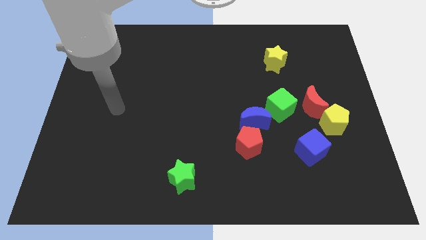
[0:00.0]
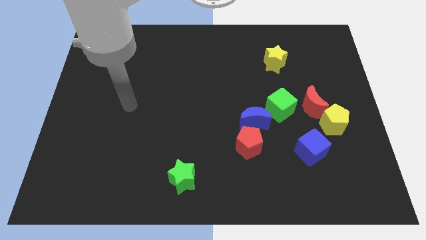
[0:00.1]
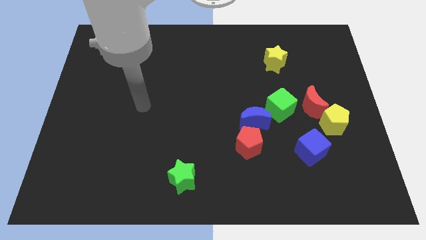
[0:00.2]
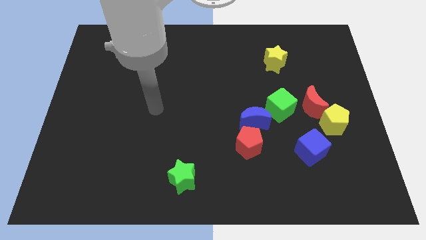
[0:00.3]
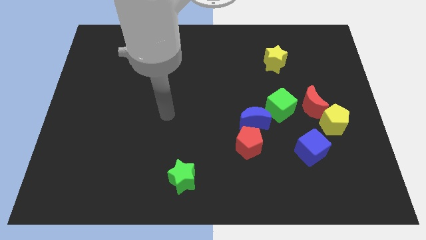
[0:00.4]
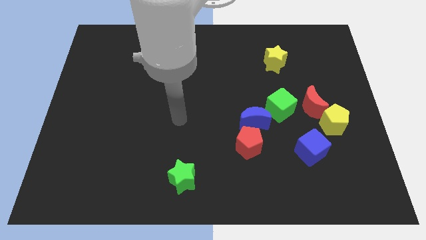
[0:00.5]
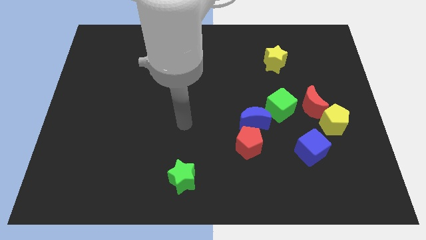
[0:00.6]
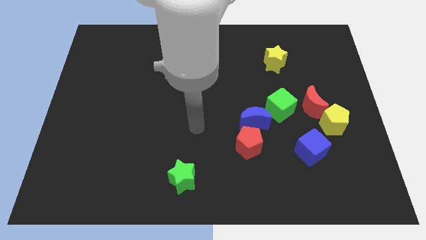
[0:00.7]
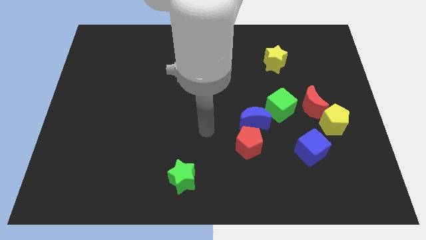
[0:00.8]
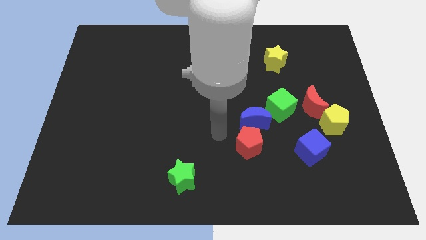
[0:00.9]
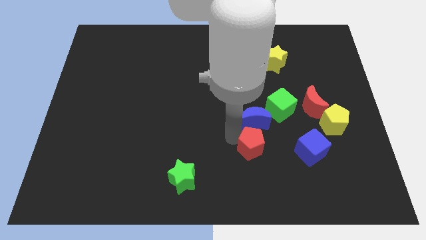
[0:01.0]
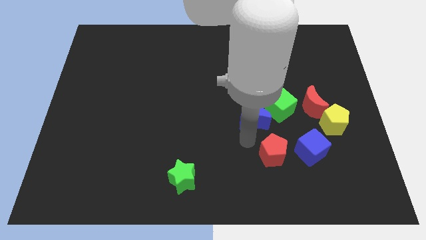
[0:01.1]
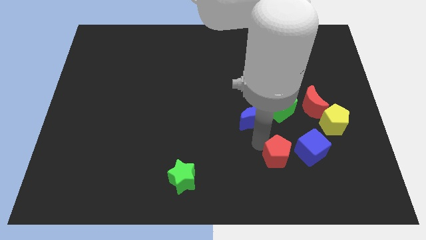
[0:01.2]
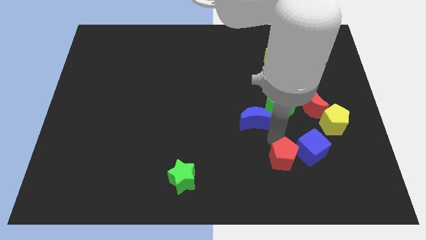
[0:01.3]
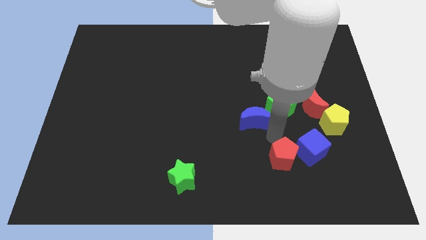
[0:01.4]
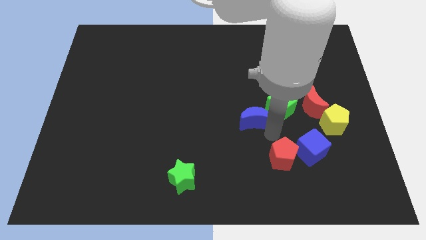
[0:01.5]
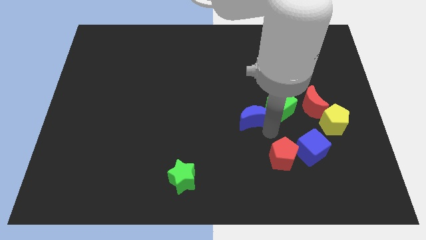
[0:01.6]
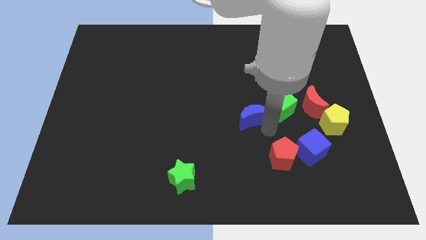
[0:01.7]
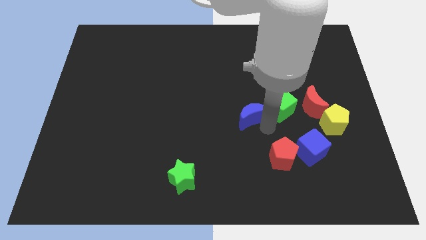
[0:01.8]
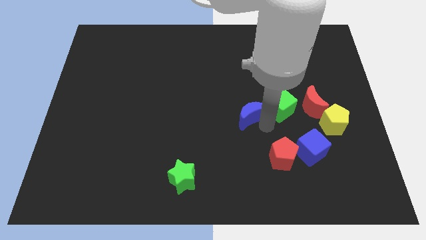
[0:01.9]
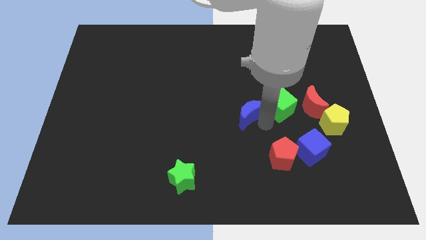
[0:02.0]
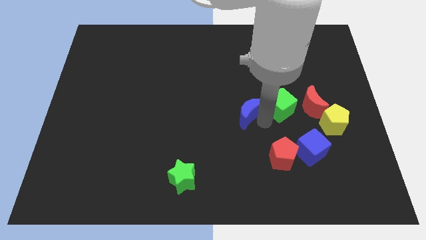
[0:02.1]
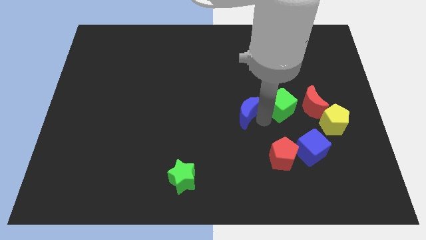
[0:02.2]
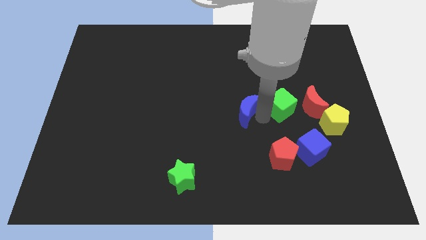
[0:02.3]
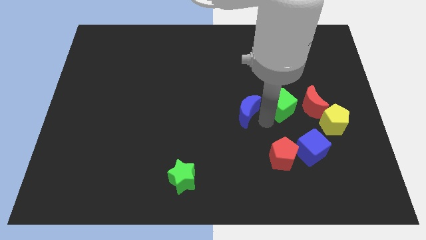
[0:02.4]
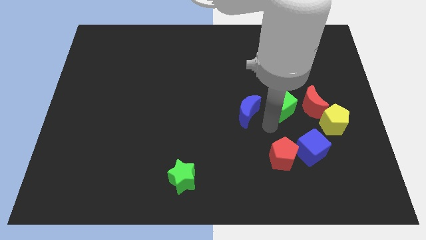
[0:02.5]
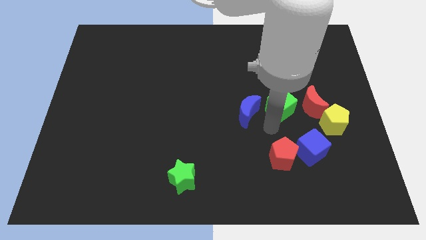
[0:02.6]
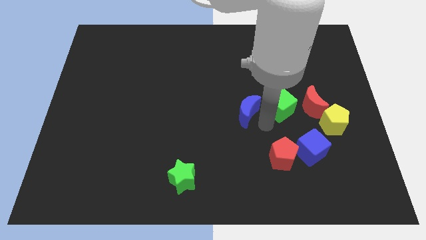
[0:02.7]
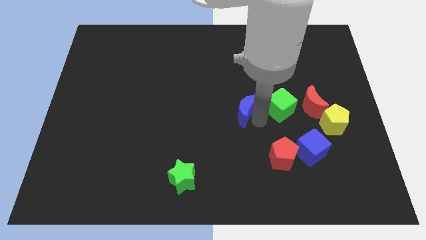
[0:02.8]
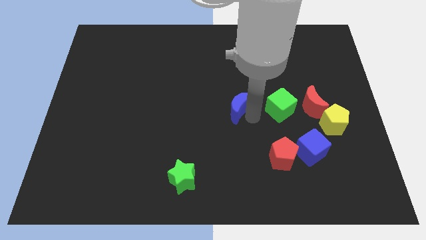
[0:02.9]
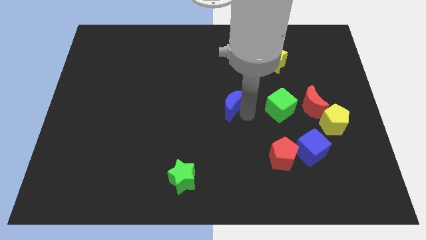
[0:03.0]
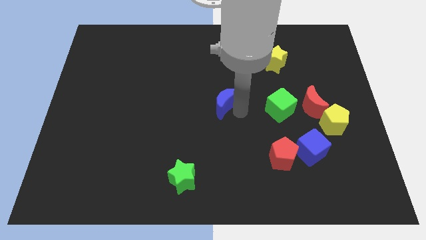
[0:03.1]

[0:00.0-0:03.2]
slightly slide the blue moon upwards and left diagonally

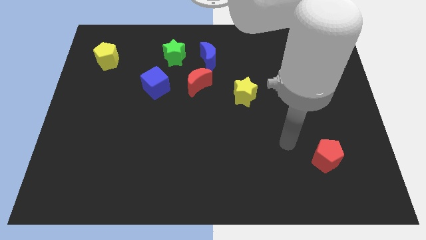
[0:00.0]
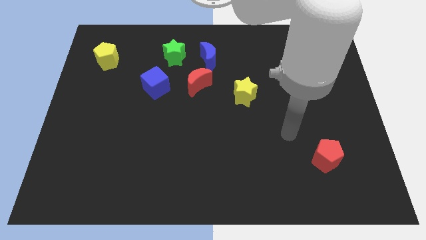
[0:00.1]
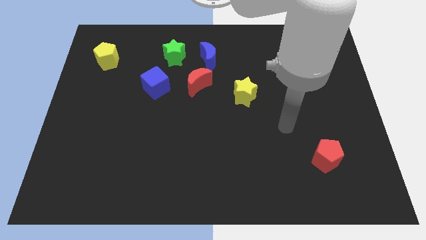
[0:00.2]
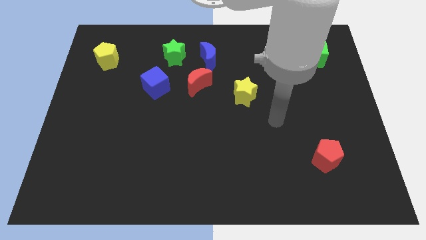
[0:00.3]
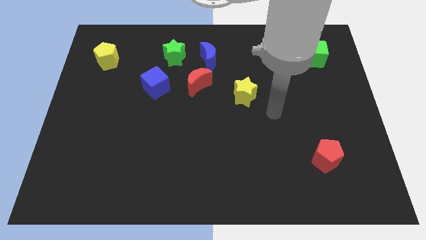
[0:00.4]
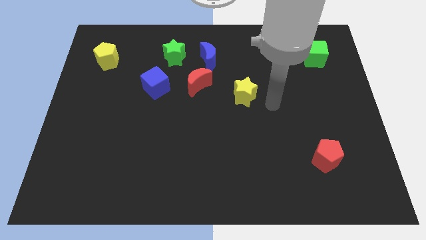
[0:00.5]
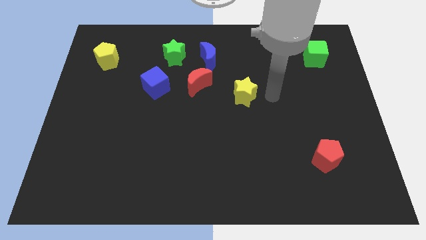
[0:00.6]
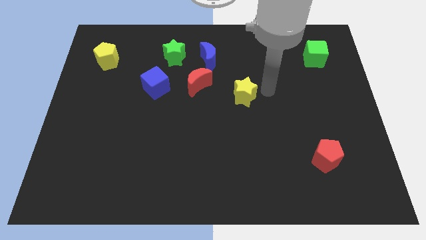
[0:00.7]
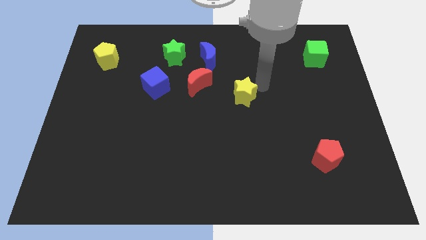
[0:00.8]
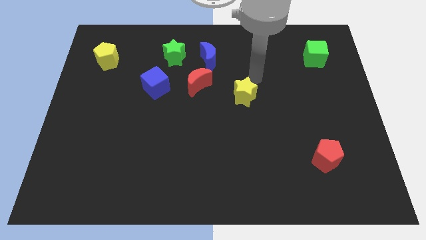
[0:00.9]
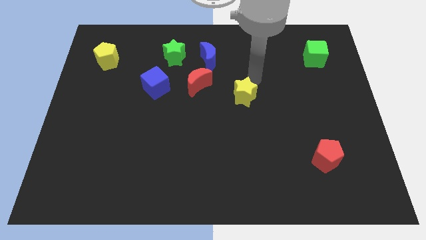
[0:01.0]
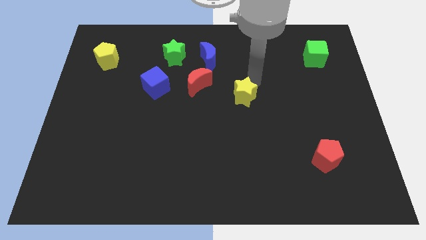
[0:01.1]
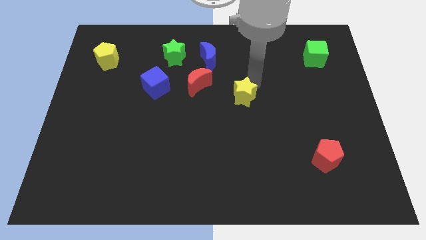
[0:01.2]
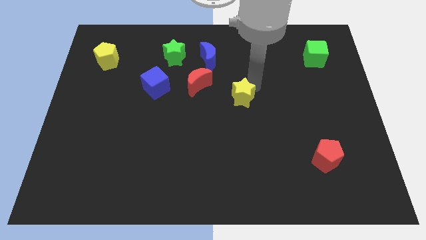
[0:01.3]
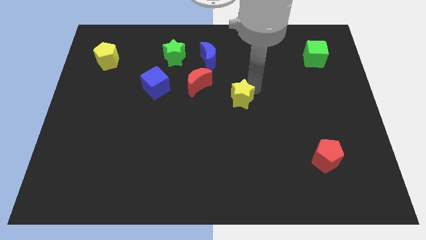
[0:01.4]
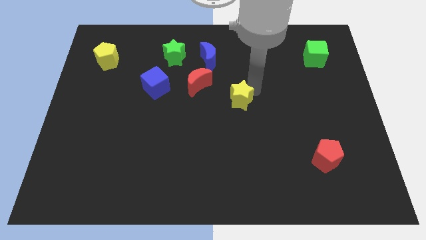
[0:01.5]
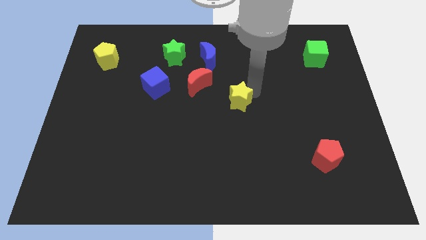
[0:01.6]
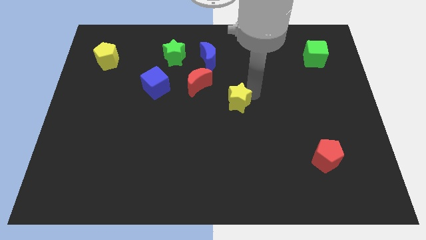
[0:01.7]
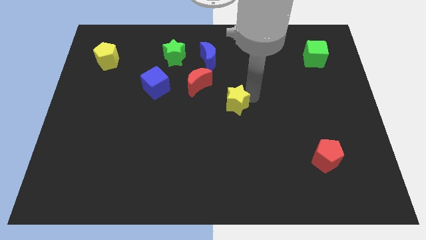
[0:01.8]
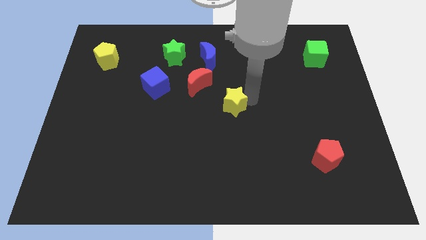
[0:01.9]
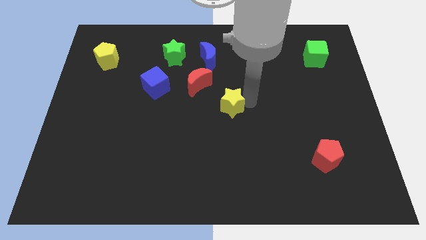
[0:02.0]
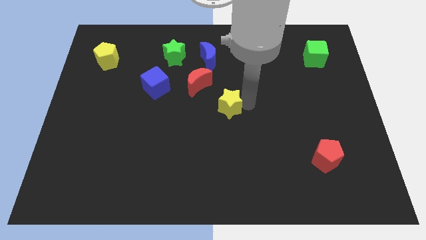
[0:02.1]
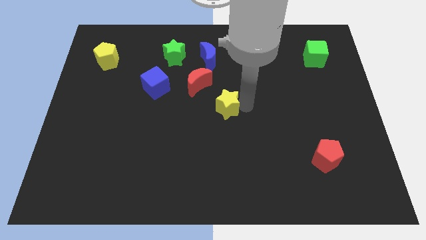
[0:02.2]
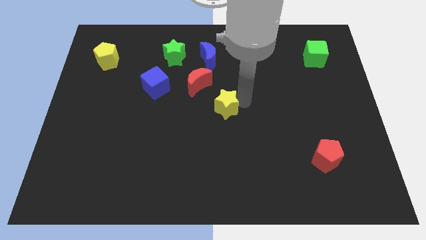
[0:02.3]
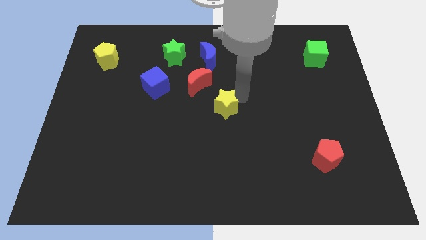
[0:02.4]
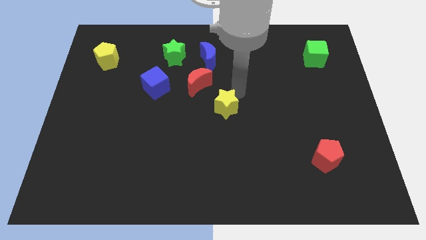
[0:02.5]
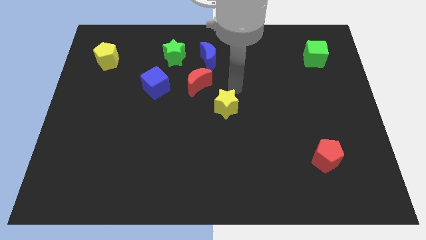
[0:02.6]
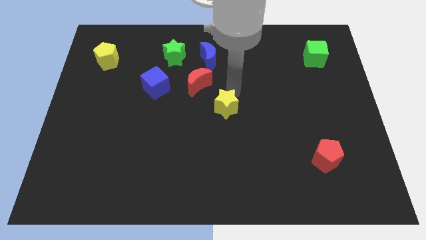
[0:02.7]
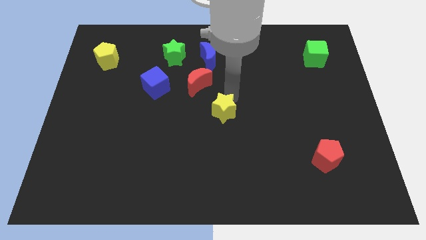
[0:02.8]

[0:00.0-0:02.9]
push the yellow star down and then left slightly

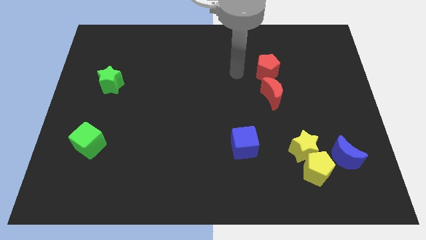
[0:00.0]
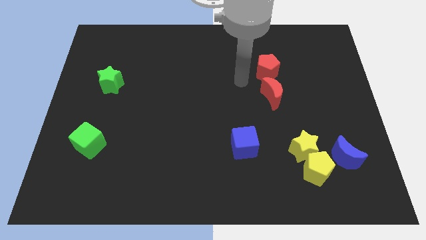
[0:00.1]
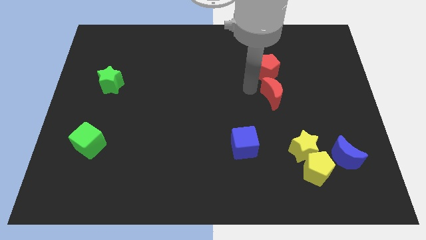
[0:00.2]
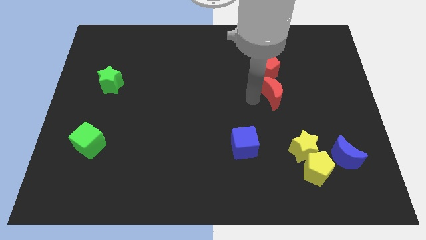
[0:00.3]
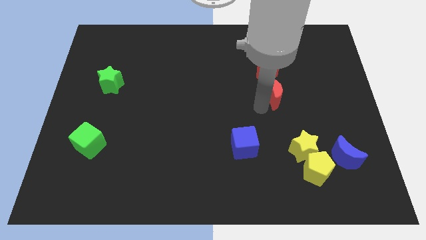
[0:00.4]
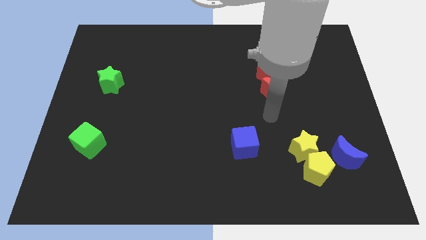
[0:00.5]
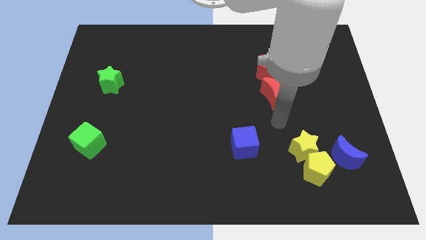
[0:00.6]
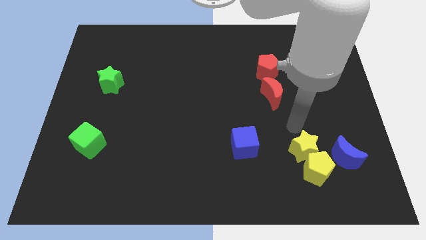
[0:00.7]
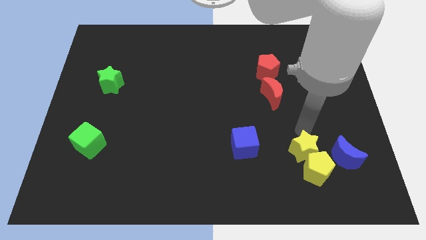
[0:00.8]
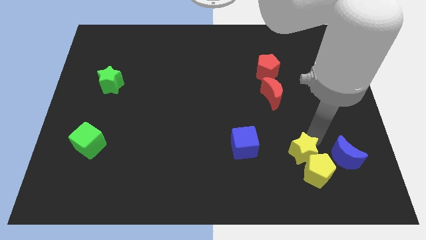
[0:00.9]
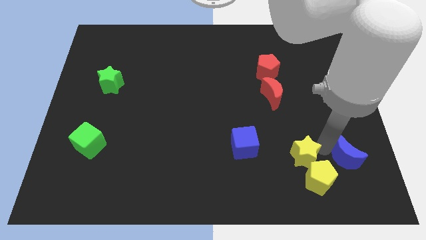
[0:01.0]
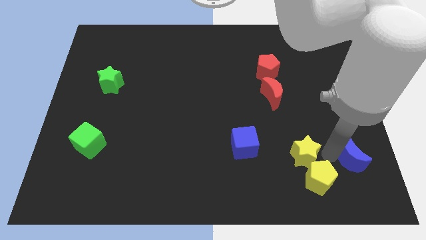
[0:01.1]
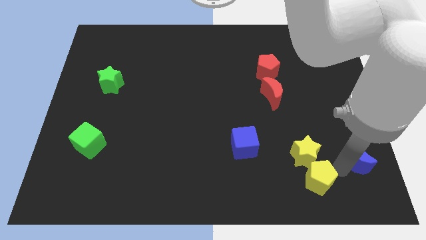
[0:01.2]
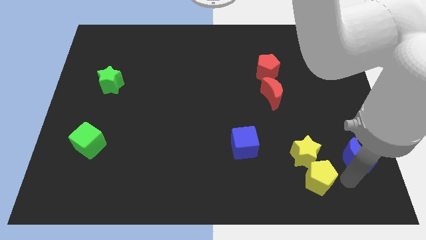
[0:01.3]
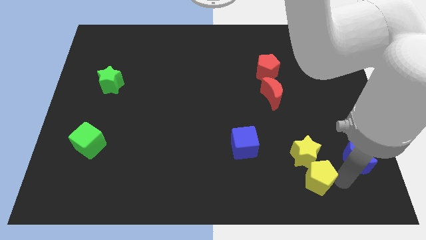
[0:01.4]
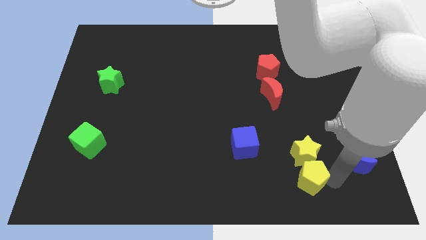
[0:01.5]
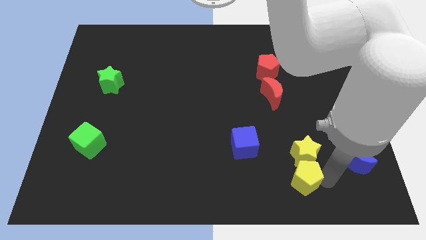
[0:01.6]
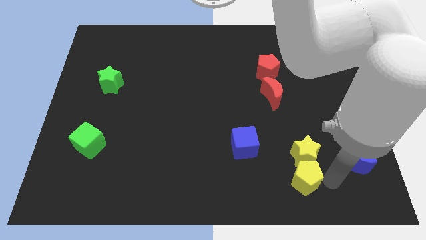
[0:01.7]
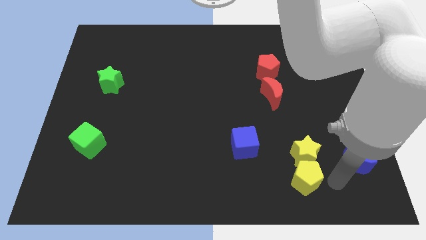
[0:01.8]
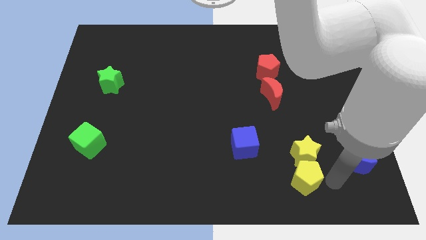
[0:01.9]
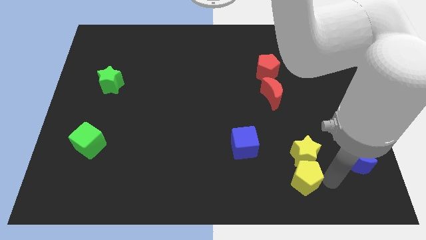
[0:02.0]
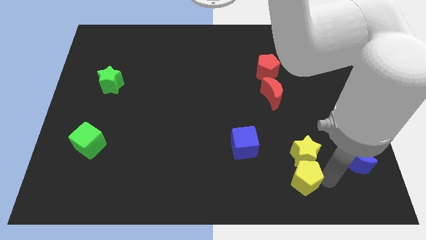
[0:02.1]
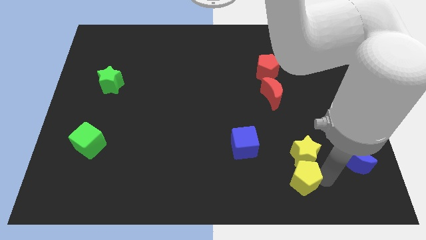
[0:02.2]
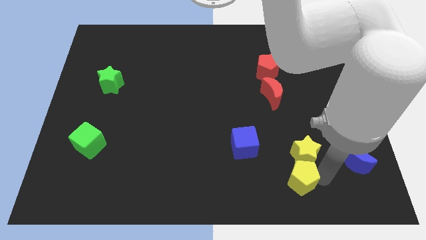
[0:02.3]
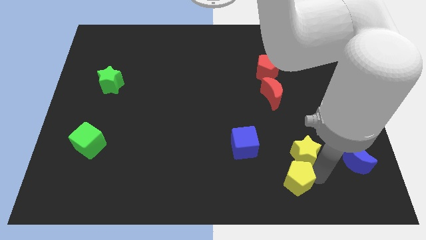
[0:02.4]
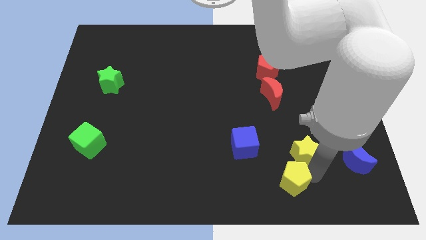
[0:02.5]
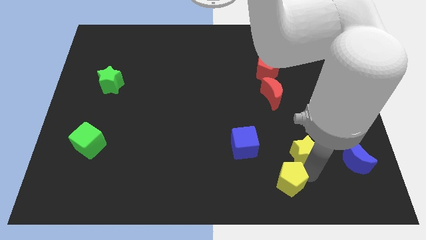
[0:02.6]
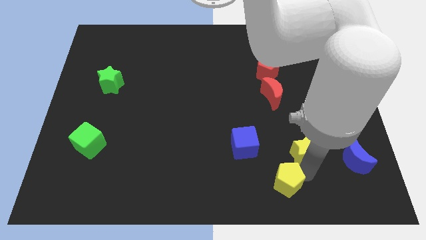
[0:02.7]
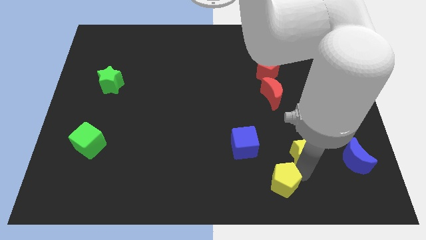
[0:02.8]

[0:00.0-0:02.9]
slide the yellow pentagon somewhat left
